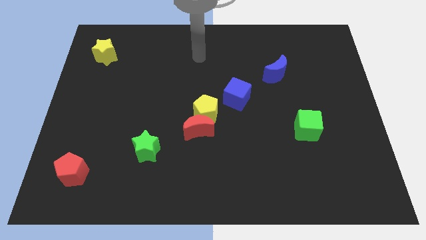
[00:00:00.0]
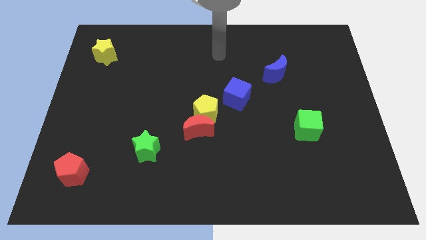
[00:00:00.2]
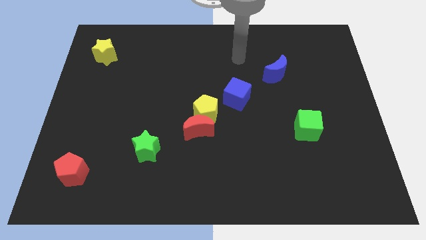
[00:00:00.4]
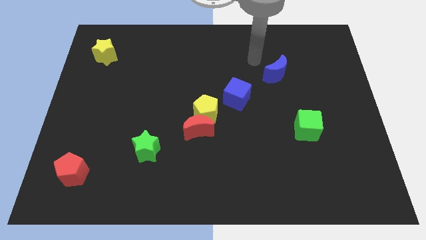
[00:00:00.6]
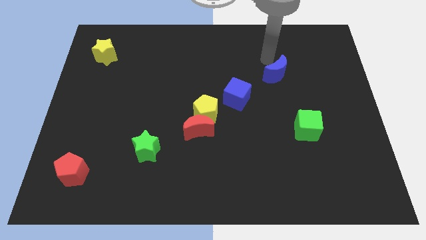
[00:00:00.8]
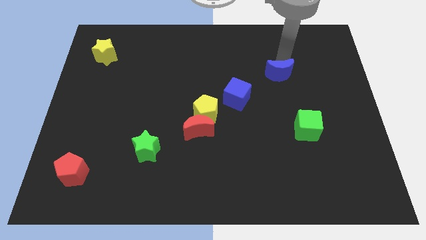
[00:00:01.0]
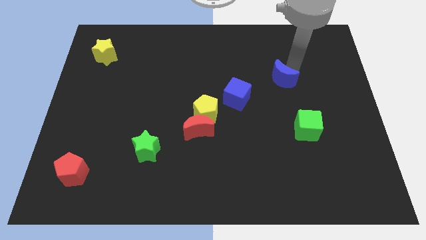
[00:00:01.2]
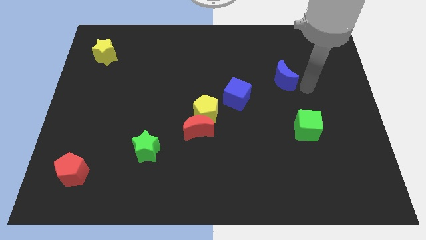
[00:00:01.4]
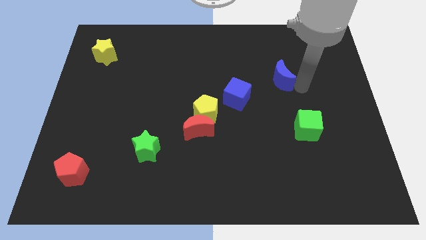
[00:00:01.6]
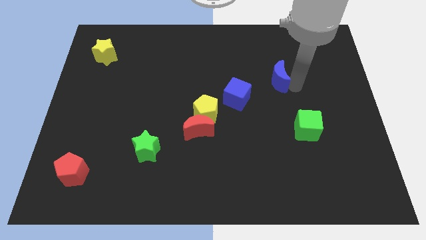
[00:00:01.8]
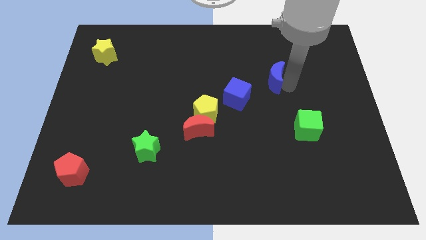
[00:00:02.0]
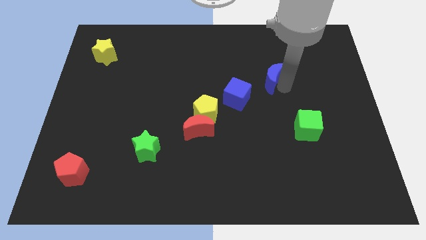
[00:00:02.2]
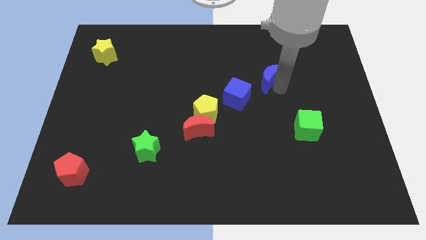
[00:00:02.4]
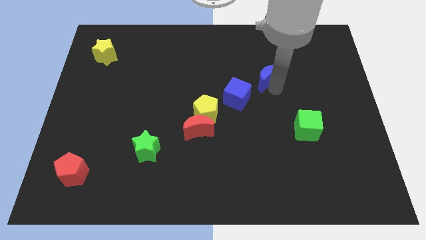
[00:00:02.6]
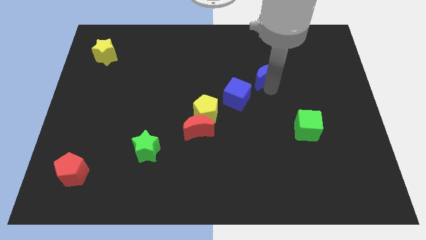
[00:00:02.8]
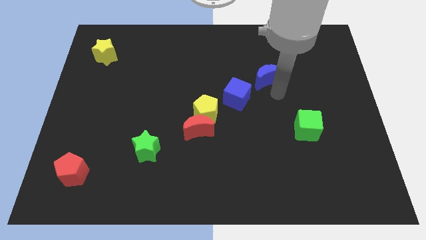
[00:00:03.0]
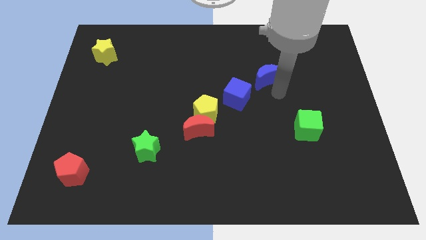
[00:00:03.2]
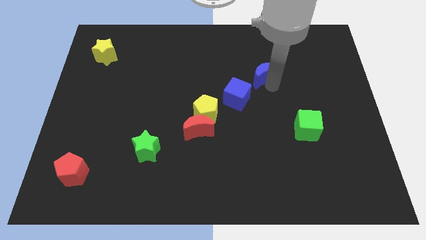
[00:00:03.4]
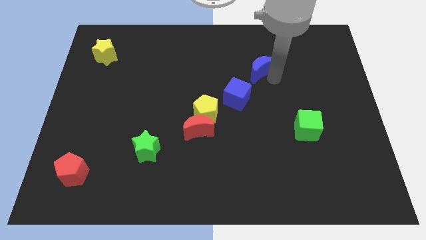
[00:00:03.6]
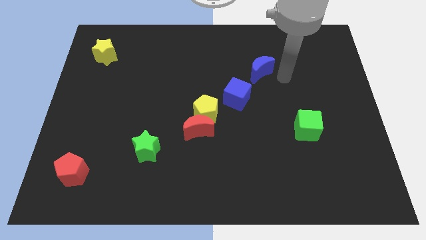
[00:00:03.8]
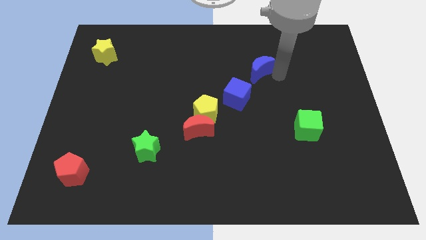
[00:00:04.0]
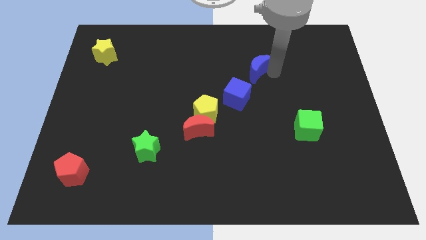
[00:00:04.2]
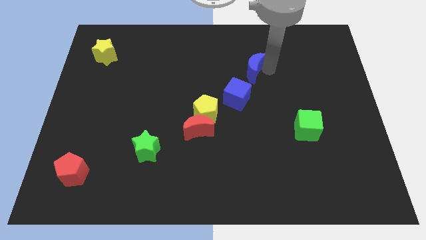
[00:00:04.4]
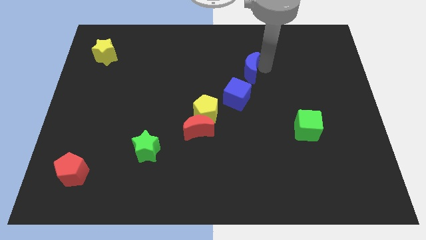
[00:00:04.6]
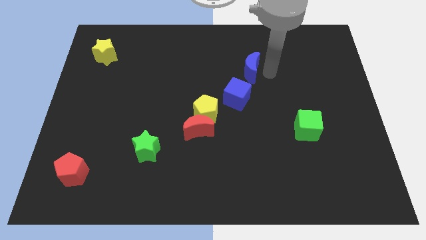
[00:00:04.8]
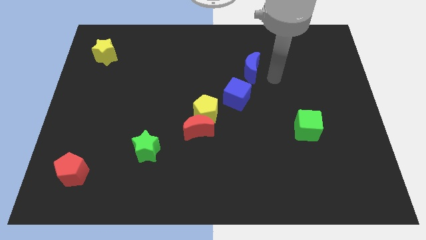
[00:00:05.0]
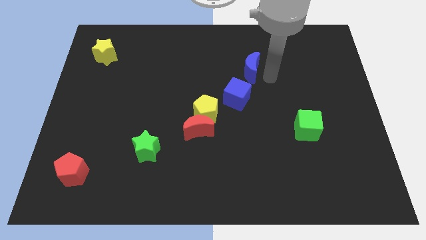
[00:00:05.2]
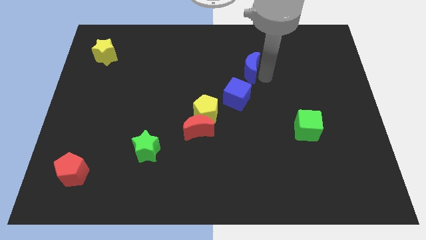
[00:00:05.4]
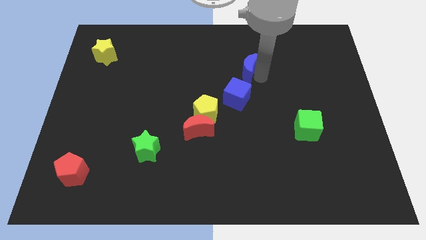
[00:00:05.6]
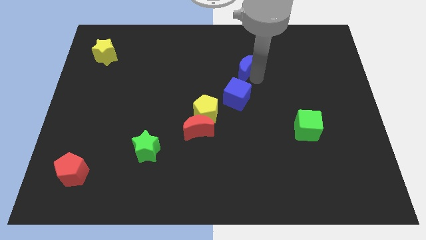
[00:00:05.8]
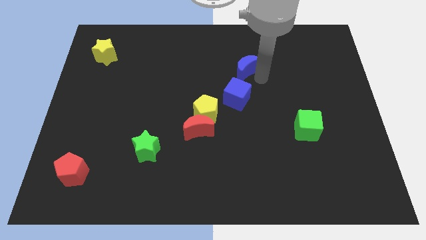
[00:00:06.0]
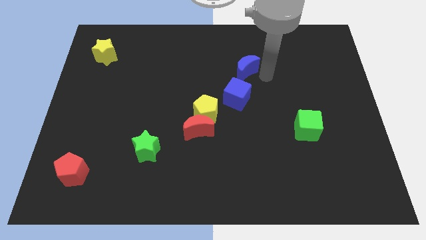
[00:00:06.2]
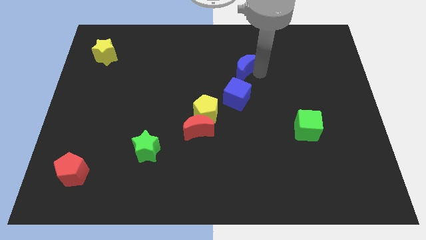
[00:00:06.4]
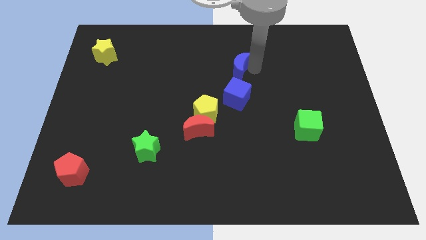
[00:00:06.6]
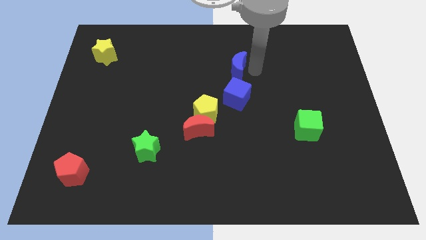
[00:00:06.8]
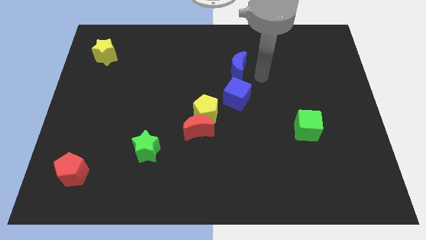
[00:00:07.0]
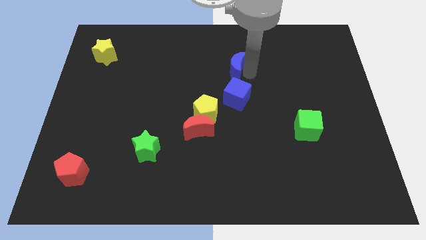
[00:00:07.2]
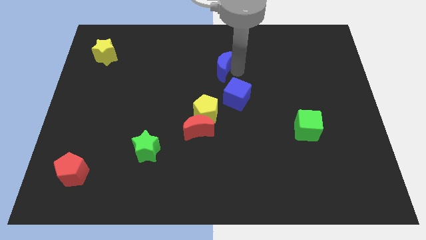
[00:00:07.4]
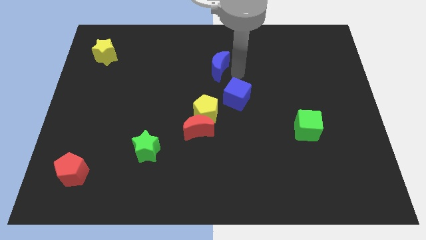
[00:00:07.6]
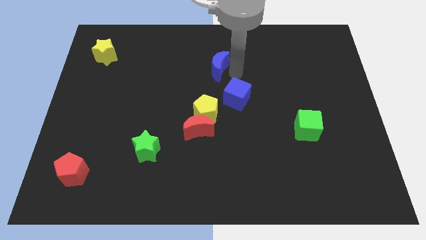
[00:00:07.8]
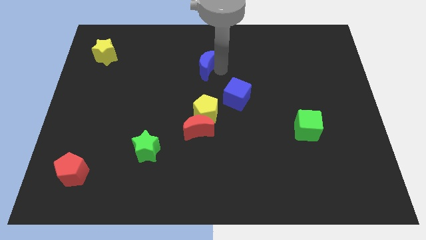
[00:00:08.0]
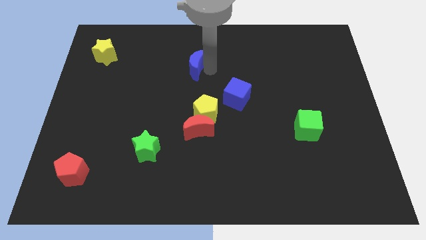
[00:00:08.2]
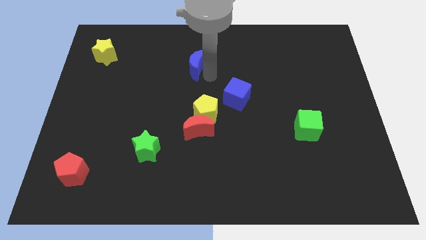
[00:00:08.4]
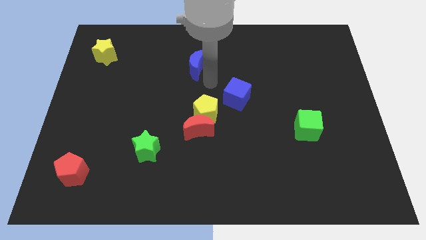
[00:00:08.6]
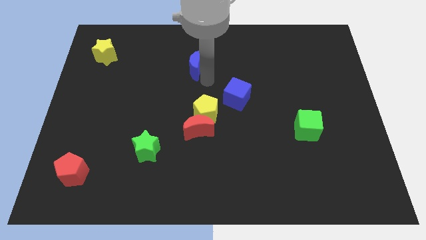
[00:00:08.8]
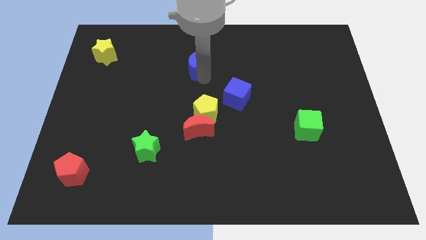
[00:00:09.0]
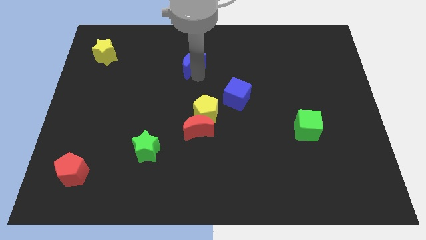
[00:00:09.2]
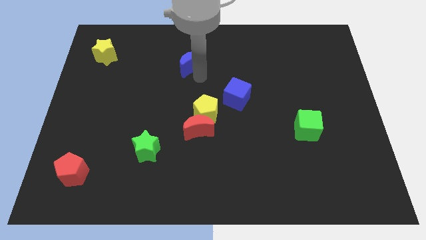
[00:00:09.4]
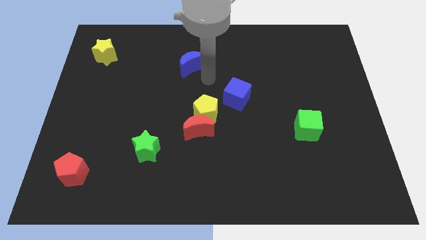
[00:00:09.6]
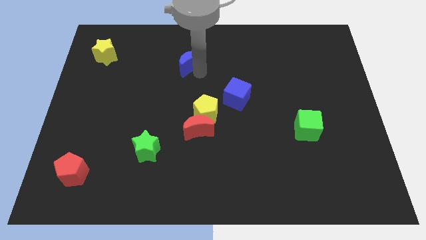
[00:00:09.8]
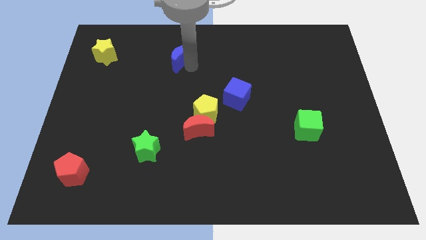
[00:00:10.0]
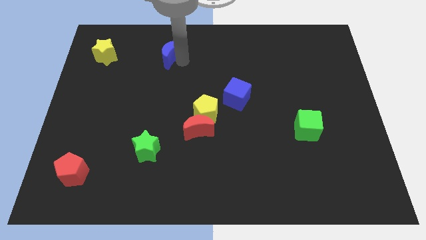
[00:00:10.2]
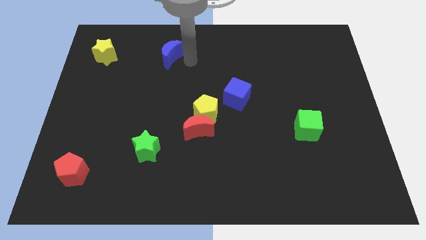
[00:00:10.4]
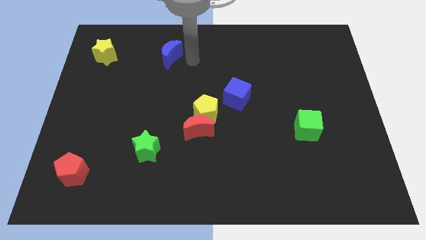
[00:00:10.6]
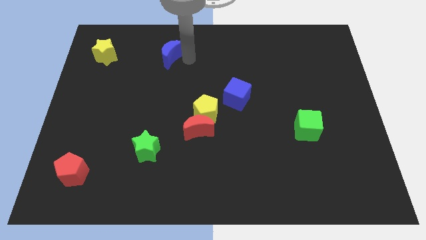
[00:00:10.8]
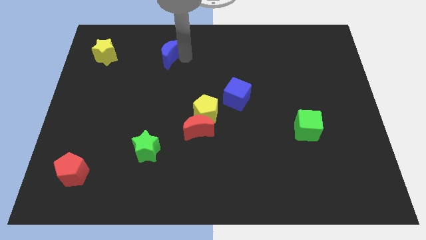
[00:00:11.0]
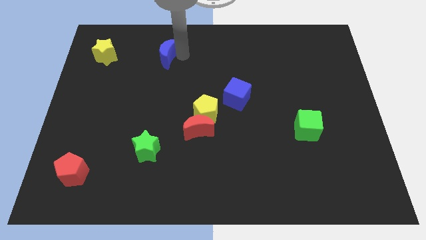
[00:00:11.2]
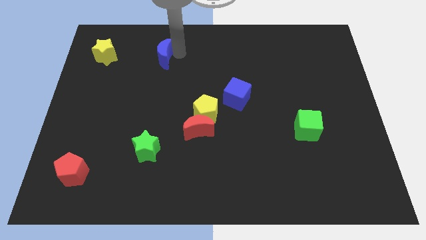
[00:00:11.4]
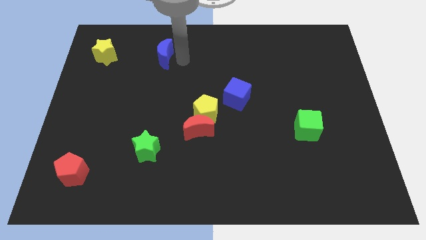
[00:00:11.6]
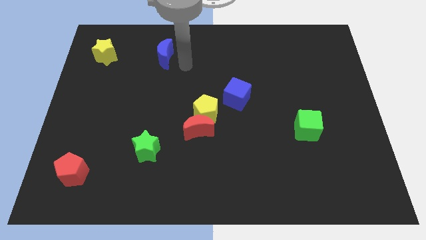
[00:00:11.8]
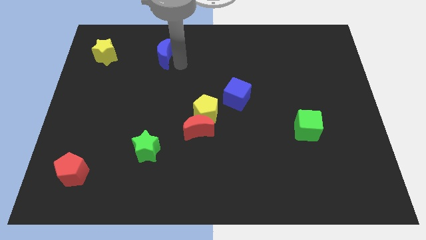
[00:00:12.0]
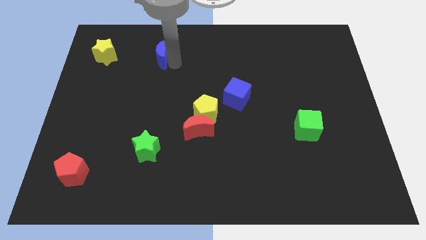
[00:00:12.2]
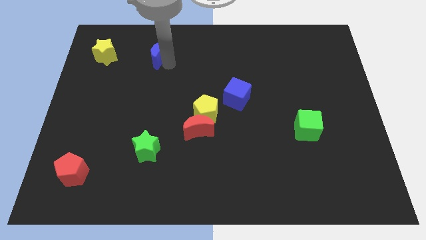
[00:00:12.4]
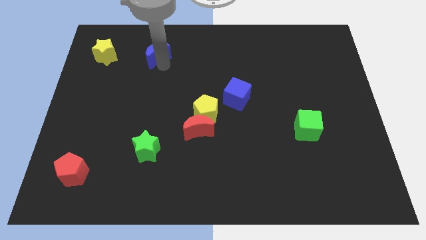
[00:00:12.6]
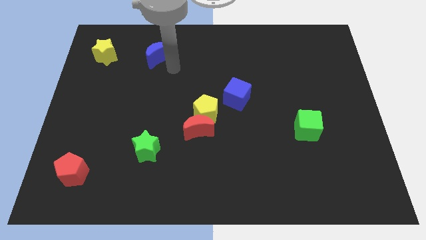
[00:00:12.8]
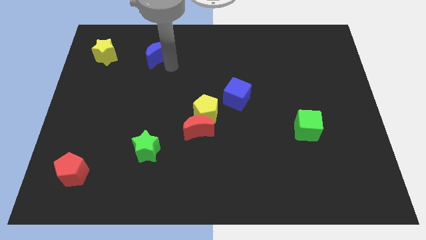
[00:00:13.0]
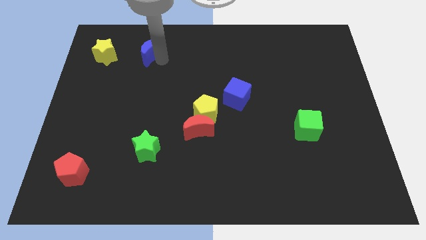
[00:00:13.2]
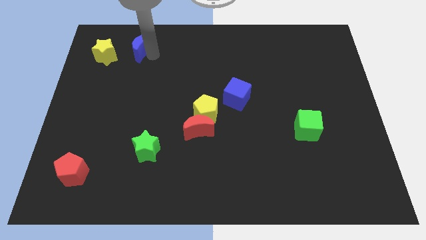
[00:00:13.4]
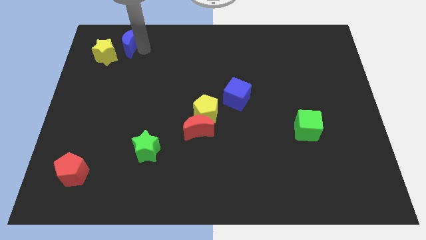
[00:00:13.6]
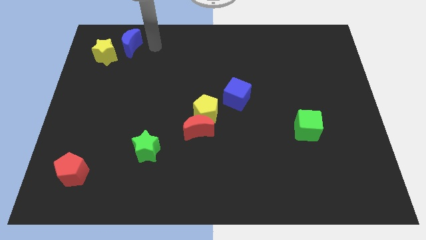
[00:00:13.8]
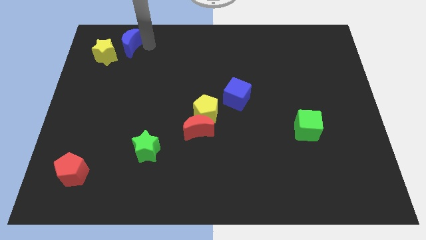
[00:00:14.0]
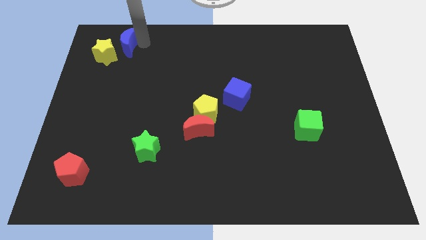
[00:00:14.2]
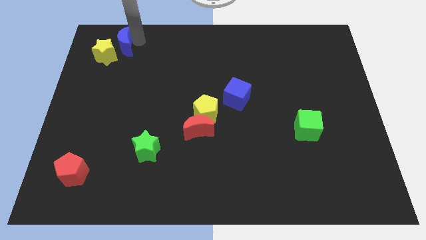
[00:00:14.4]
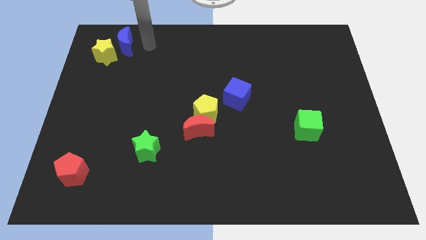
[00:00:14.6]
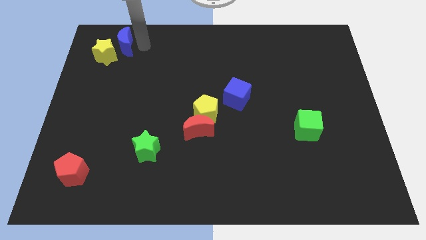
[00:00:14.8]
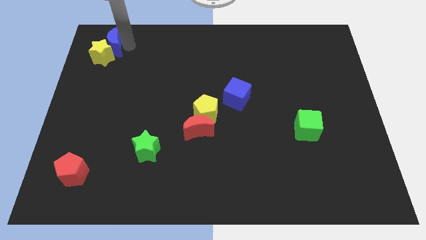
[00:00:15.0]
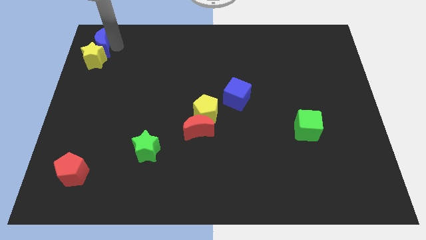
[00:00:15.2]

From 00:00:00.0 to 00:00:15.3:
put the blue moon to the upper left corner
